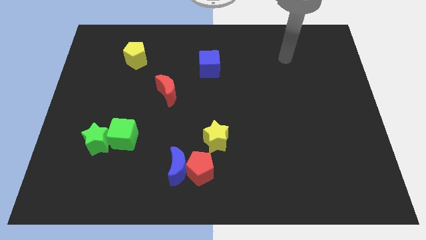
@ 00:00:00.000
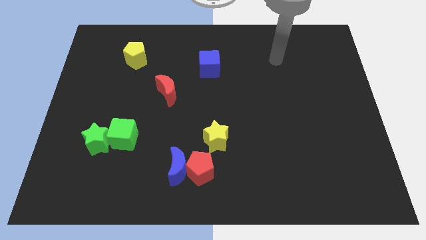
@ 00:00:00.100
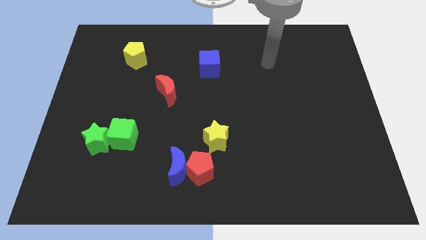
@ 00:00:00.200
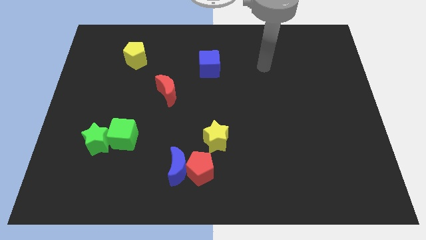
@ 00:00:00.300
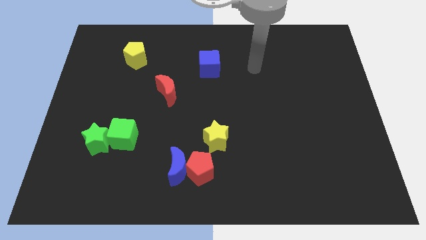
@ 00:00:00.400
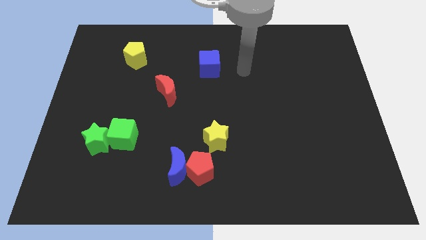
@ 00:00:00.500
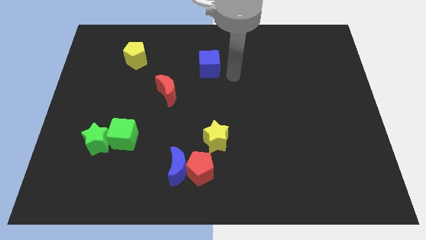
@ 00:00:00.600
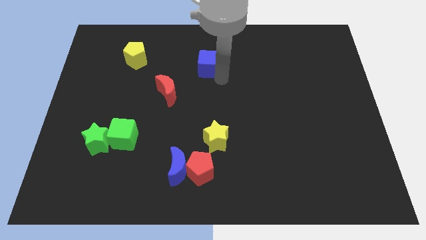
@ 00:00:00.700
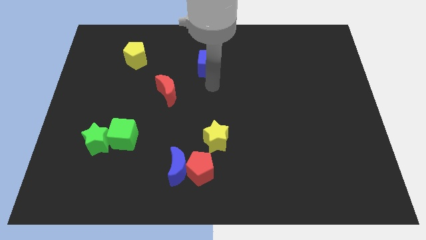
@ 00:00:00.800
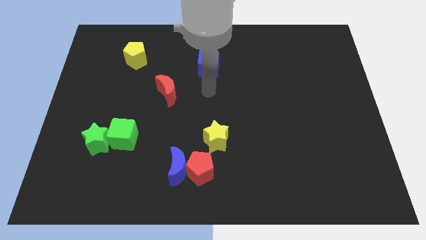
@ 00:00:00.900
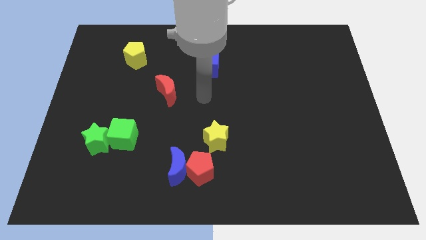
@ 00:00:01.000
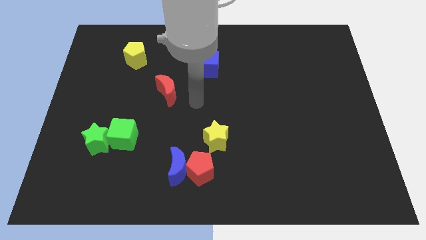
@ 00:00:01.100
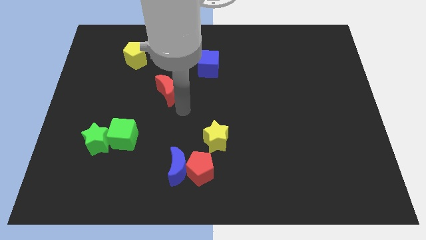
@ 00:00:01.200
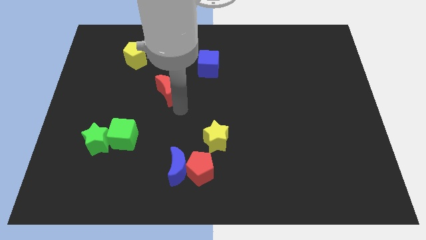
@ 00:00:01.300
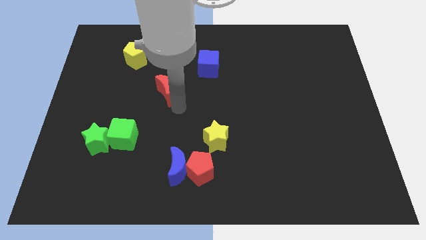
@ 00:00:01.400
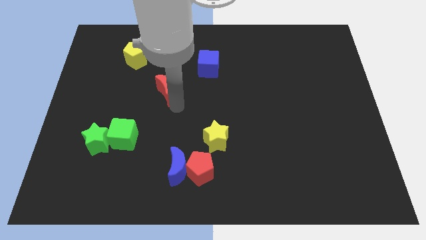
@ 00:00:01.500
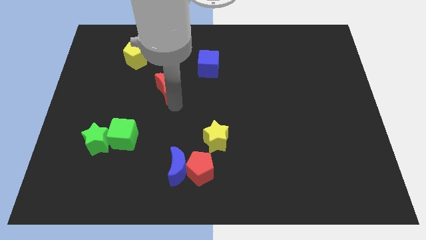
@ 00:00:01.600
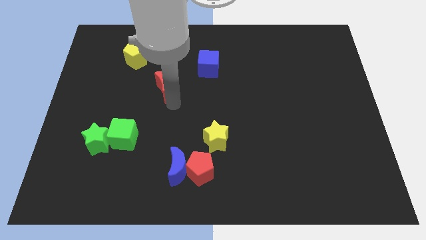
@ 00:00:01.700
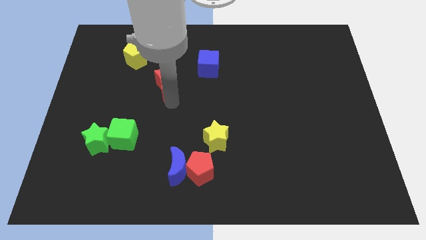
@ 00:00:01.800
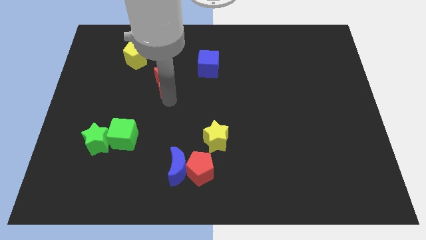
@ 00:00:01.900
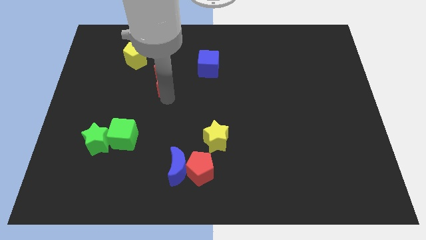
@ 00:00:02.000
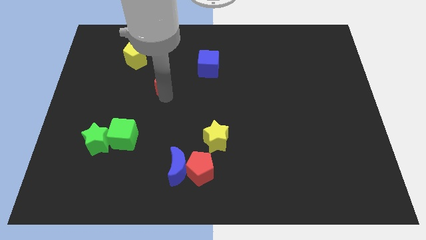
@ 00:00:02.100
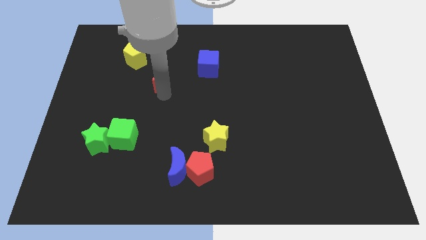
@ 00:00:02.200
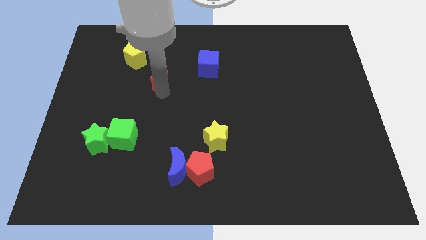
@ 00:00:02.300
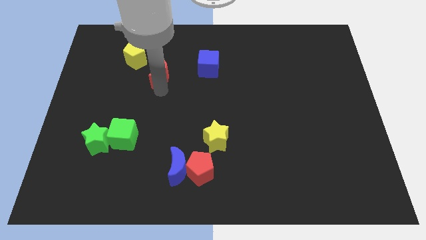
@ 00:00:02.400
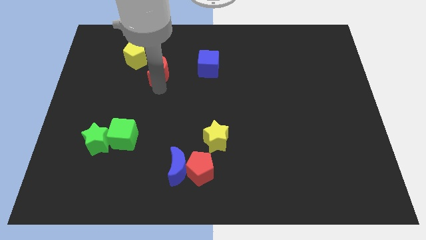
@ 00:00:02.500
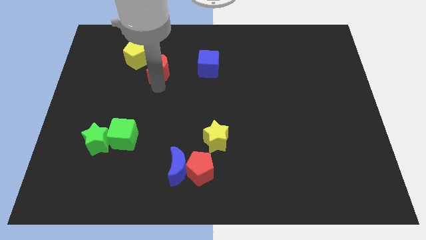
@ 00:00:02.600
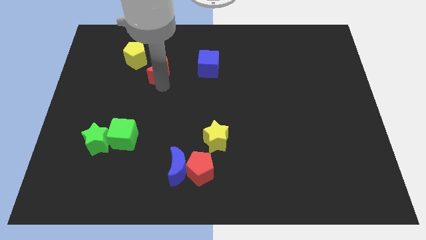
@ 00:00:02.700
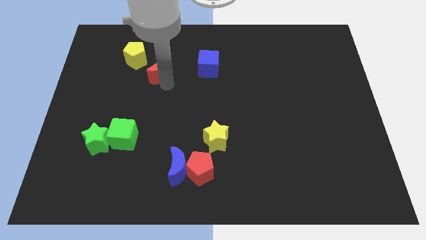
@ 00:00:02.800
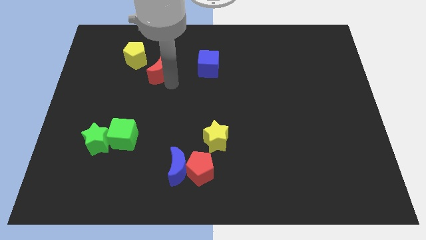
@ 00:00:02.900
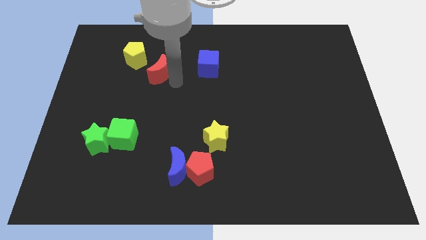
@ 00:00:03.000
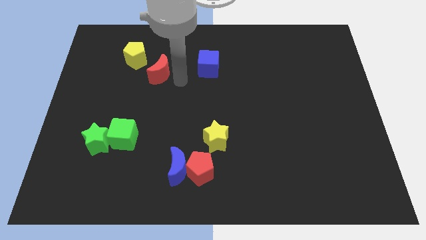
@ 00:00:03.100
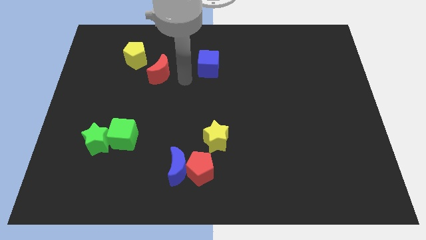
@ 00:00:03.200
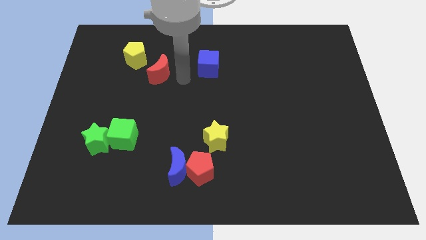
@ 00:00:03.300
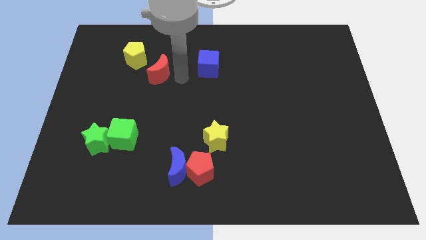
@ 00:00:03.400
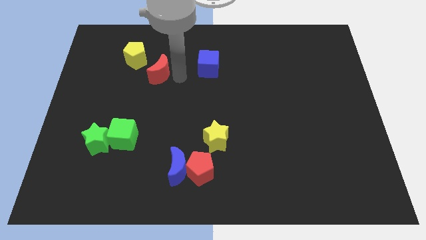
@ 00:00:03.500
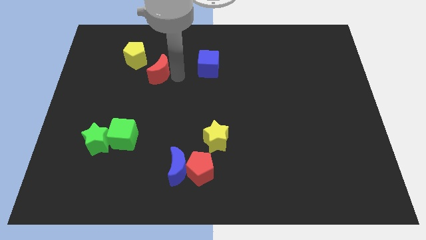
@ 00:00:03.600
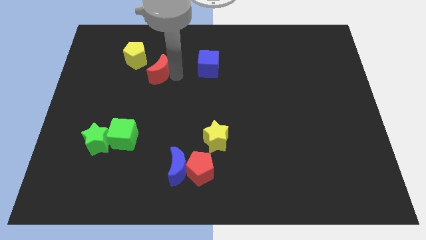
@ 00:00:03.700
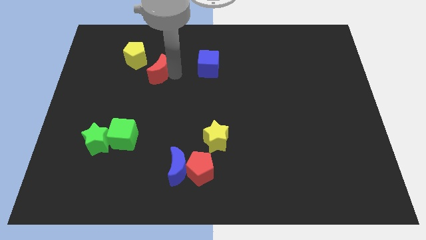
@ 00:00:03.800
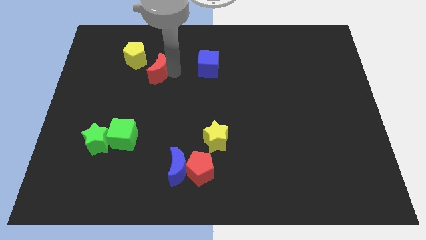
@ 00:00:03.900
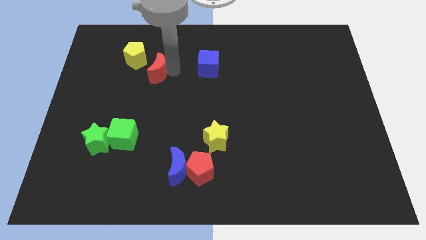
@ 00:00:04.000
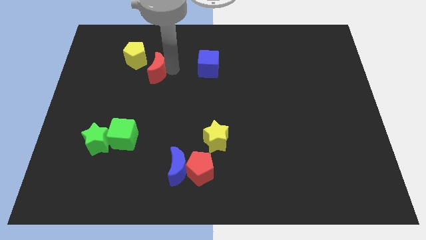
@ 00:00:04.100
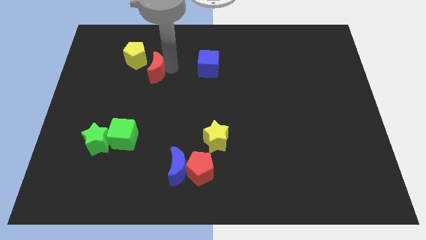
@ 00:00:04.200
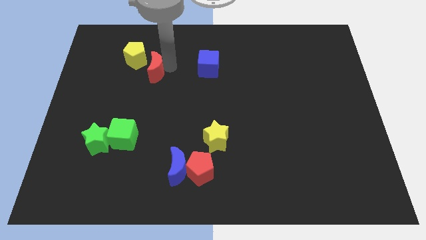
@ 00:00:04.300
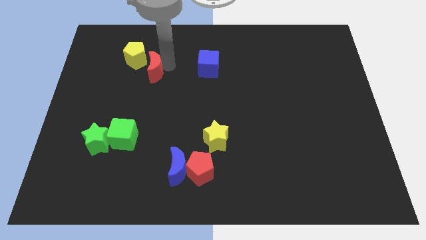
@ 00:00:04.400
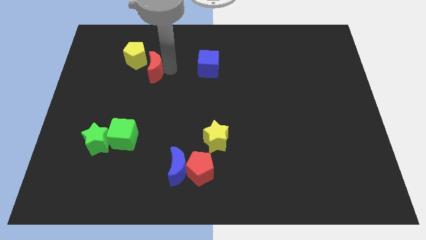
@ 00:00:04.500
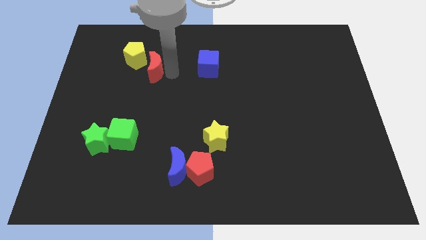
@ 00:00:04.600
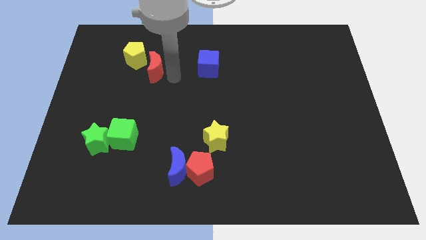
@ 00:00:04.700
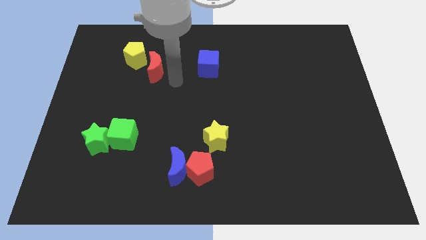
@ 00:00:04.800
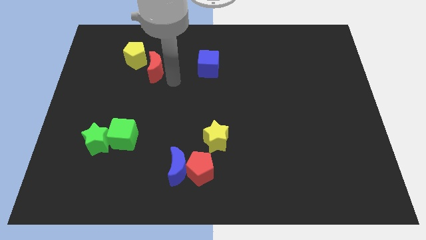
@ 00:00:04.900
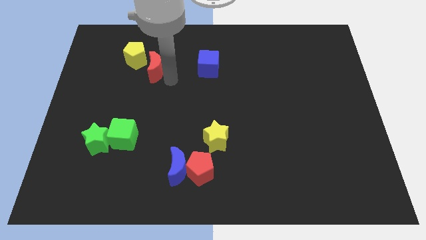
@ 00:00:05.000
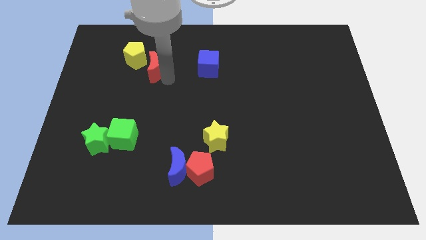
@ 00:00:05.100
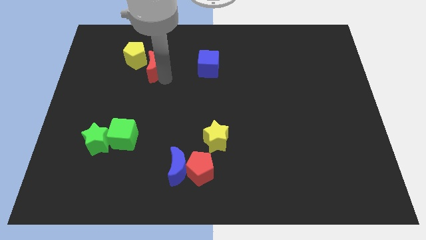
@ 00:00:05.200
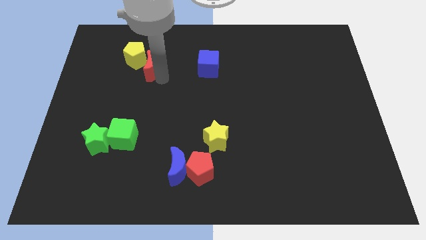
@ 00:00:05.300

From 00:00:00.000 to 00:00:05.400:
slide the red moon towards the yellow pentagon

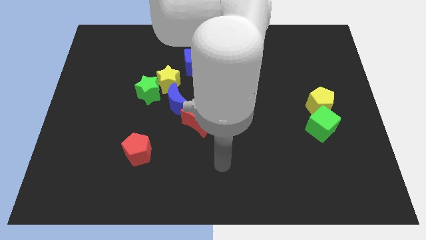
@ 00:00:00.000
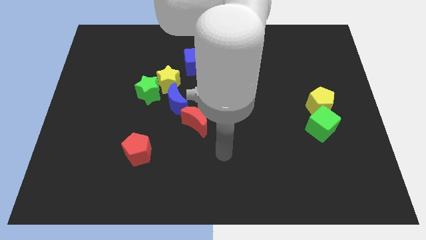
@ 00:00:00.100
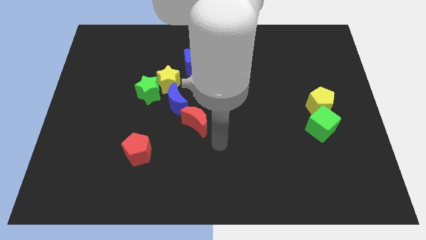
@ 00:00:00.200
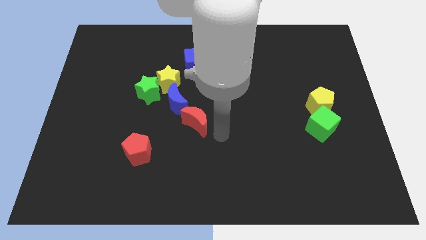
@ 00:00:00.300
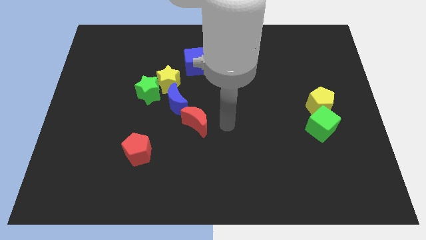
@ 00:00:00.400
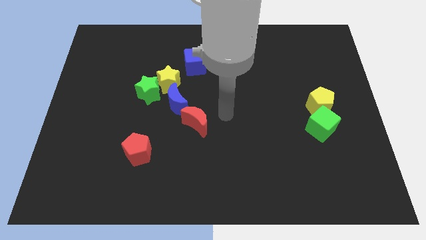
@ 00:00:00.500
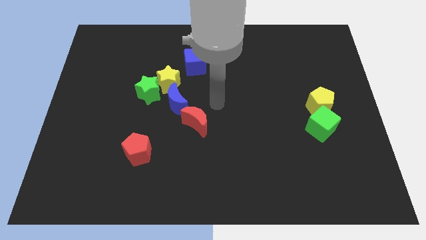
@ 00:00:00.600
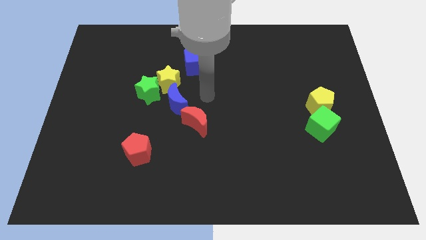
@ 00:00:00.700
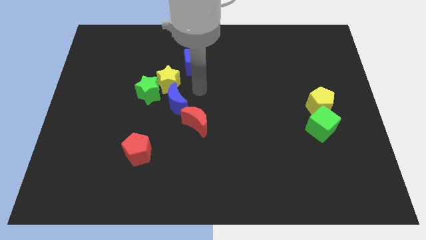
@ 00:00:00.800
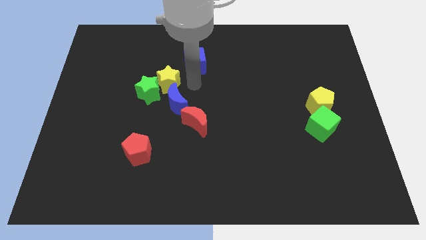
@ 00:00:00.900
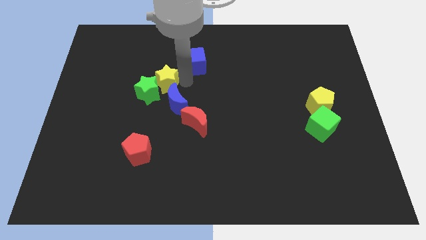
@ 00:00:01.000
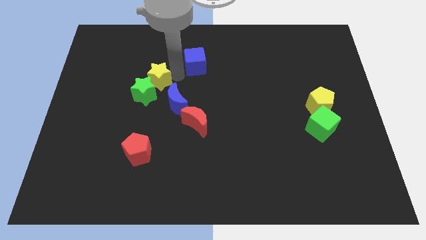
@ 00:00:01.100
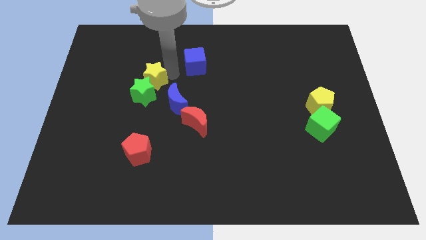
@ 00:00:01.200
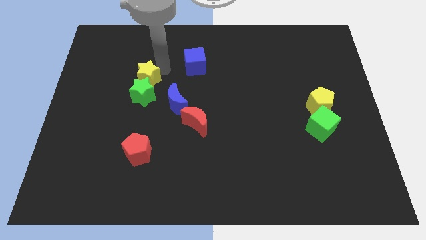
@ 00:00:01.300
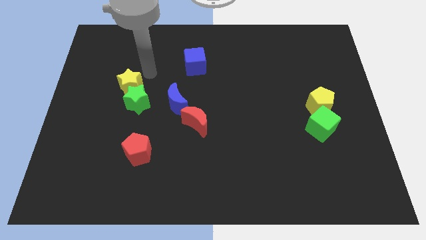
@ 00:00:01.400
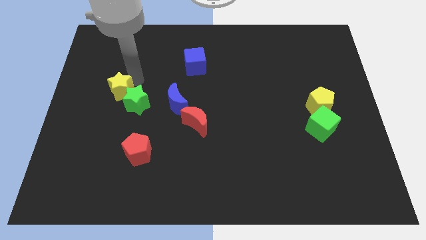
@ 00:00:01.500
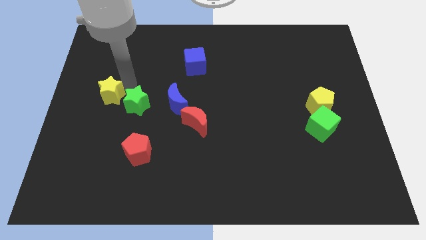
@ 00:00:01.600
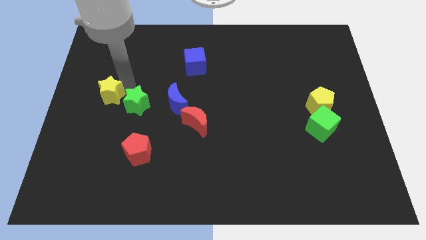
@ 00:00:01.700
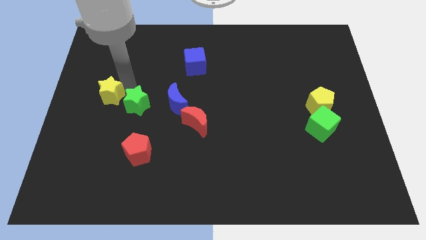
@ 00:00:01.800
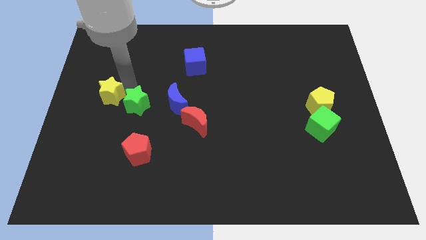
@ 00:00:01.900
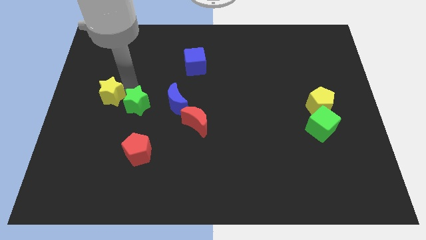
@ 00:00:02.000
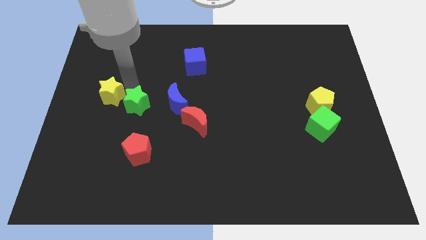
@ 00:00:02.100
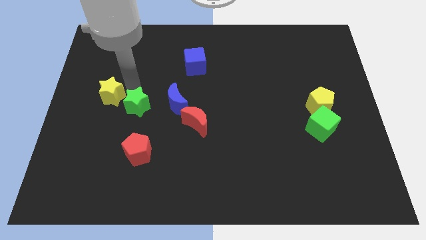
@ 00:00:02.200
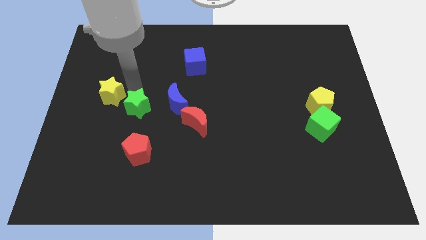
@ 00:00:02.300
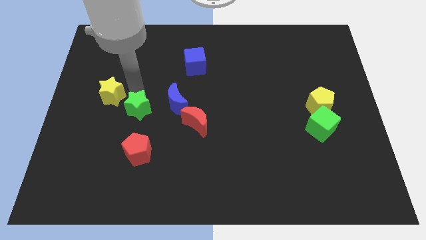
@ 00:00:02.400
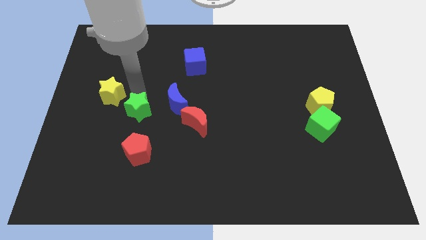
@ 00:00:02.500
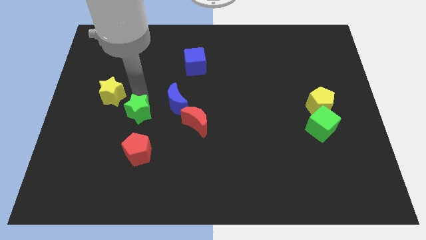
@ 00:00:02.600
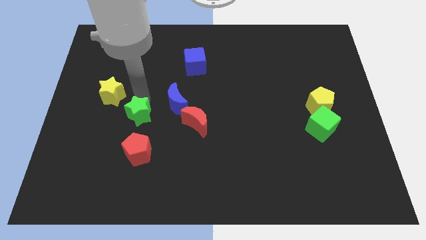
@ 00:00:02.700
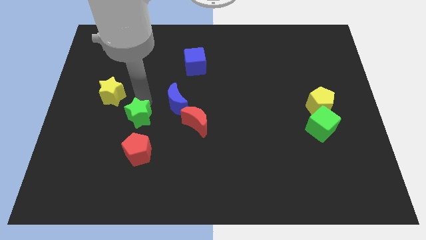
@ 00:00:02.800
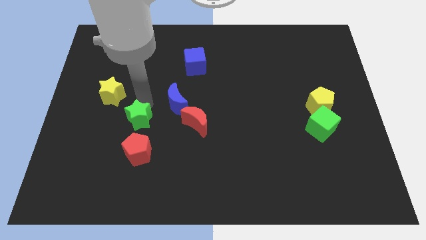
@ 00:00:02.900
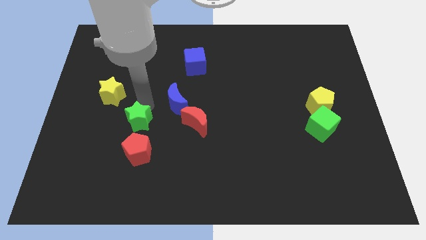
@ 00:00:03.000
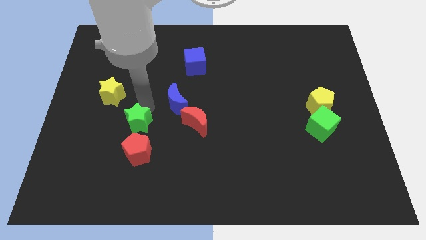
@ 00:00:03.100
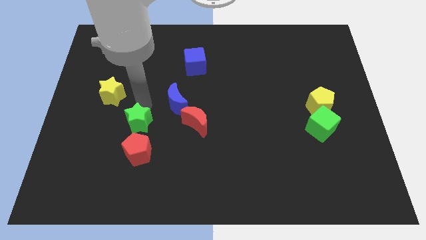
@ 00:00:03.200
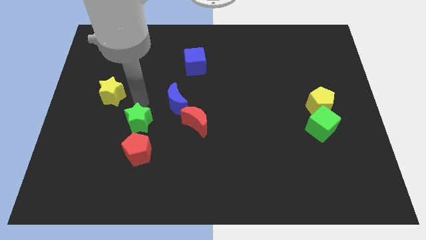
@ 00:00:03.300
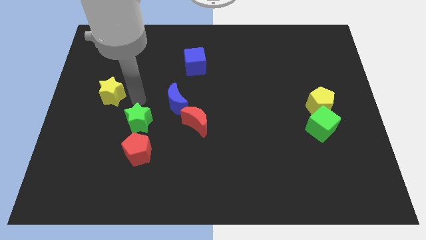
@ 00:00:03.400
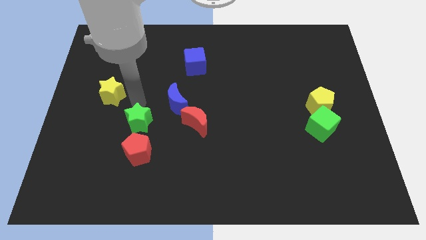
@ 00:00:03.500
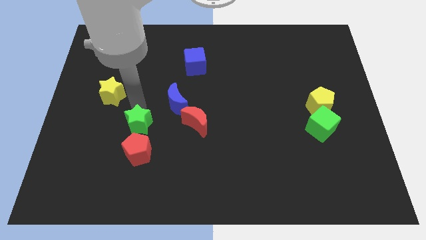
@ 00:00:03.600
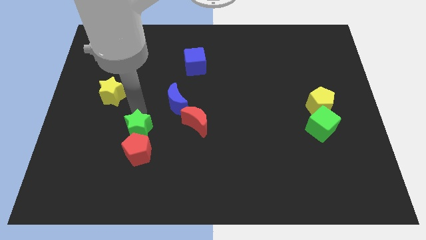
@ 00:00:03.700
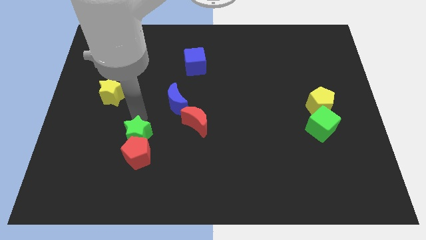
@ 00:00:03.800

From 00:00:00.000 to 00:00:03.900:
move the green star next to the red pentagon
